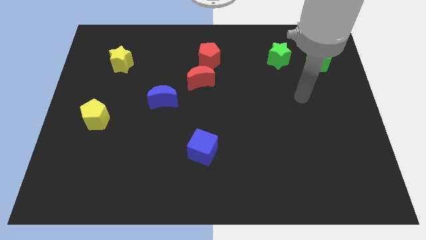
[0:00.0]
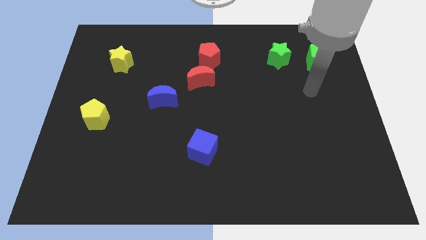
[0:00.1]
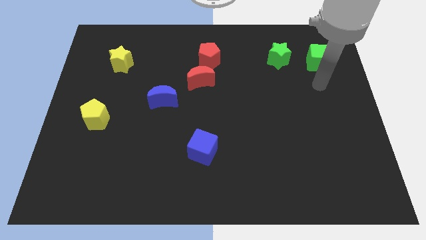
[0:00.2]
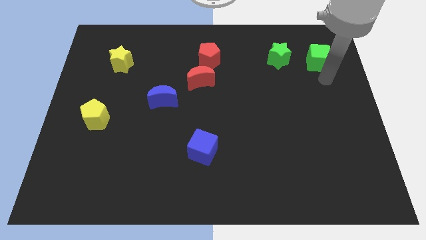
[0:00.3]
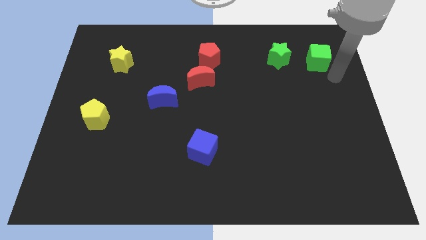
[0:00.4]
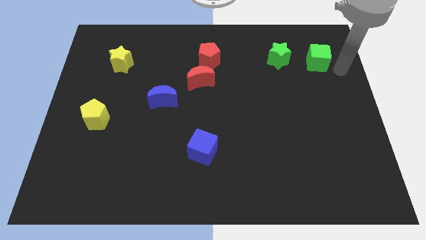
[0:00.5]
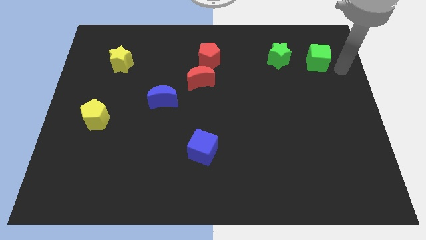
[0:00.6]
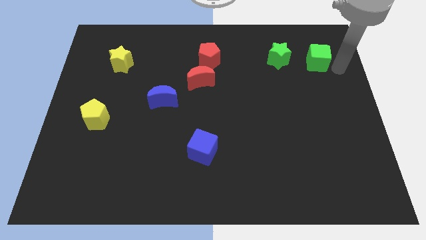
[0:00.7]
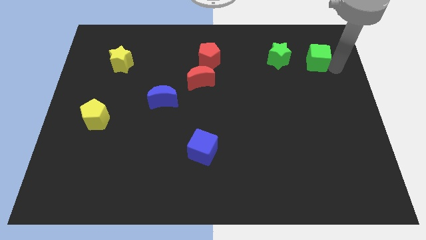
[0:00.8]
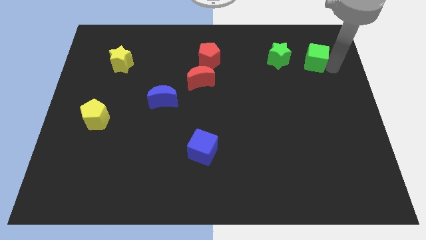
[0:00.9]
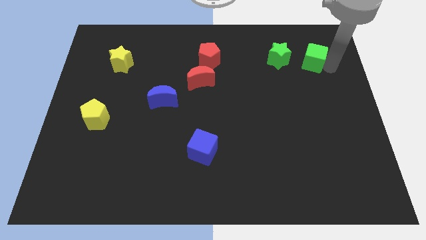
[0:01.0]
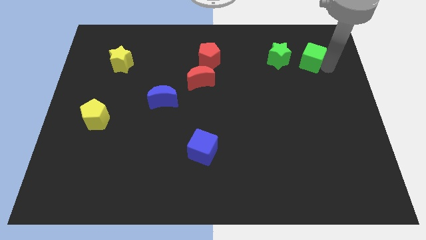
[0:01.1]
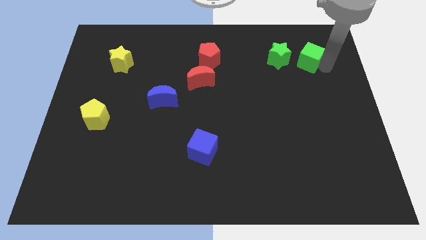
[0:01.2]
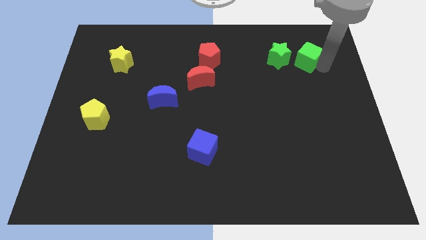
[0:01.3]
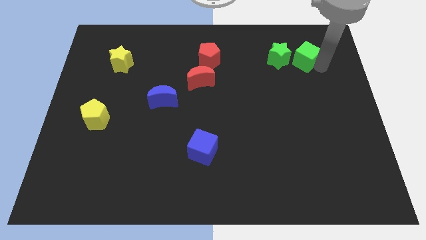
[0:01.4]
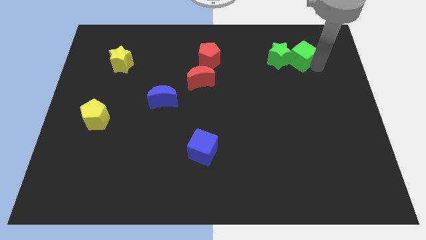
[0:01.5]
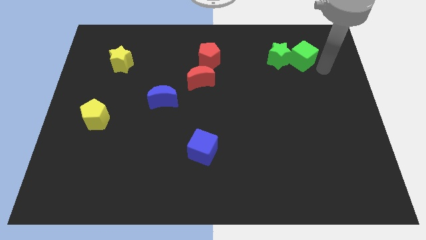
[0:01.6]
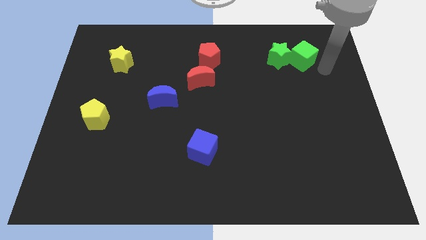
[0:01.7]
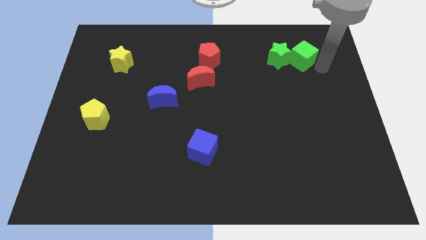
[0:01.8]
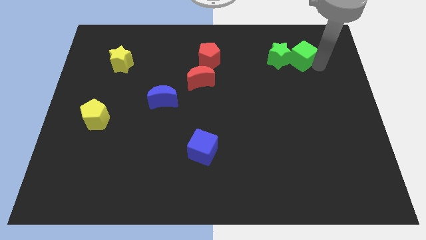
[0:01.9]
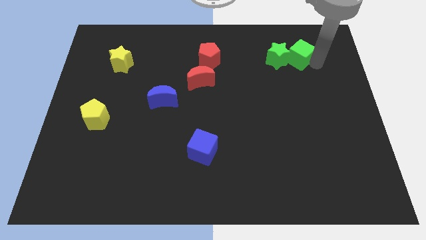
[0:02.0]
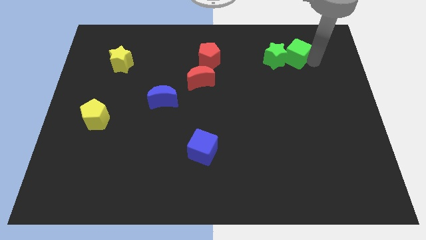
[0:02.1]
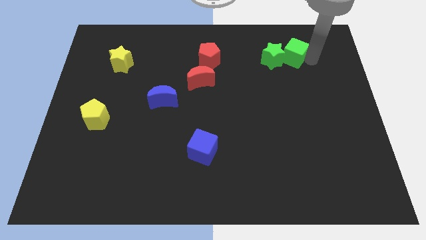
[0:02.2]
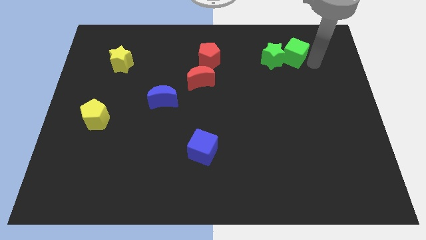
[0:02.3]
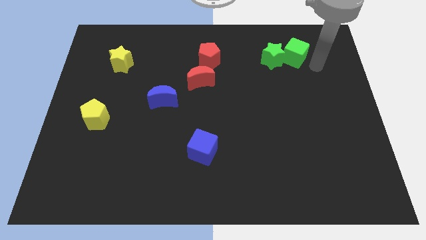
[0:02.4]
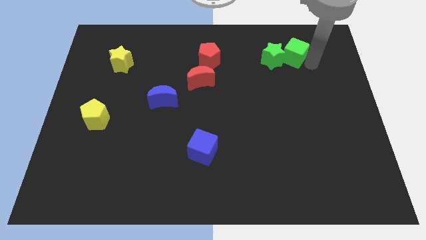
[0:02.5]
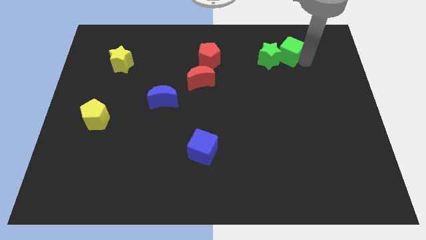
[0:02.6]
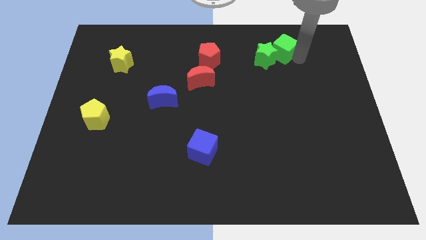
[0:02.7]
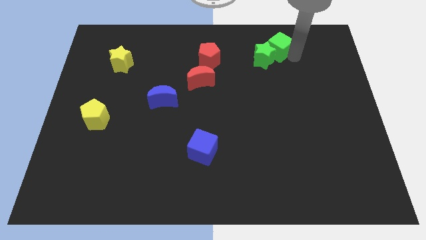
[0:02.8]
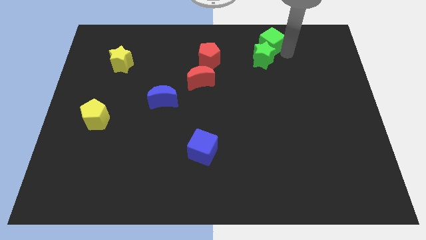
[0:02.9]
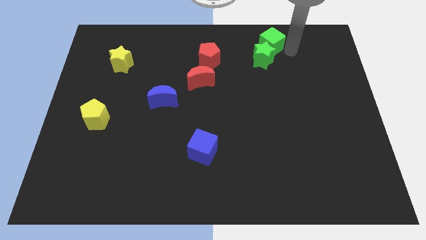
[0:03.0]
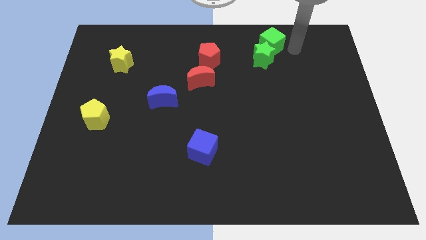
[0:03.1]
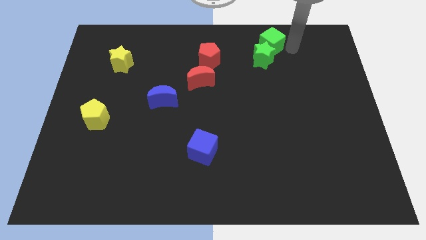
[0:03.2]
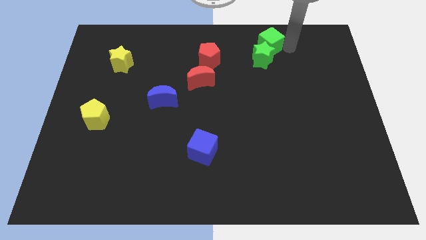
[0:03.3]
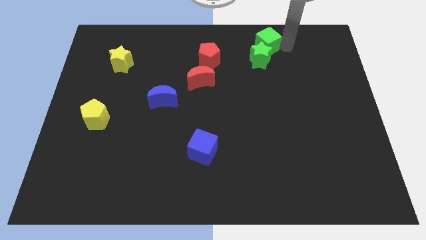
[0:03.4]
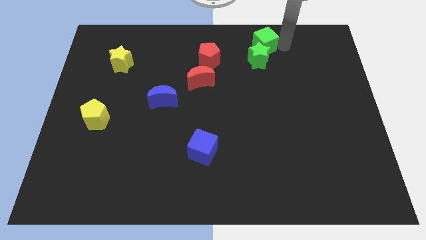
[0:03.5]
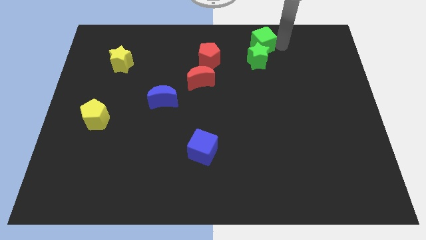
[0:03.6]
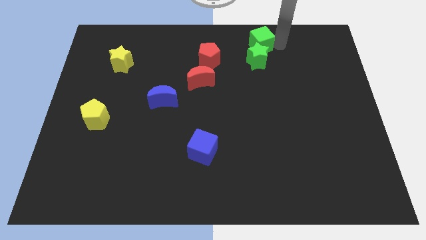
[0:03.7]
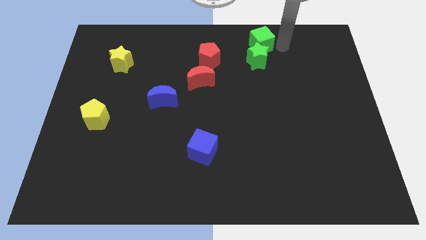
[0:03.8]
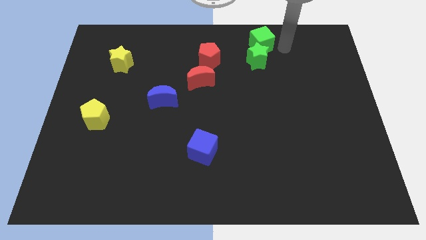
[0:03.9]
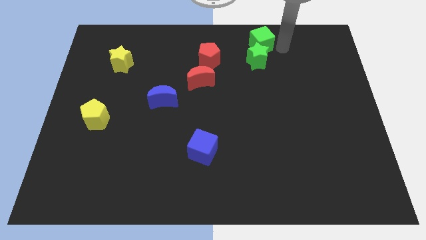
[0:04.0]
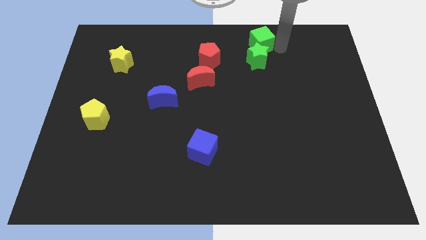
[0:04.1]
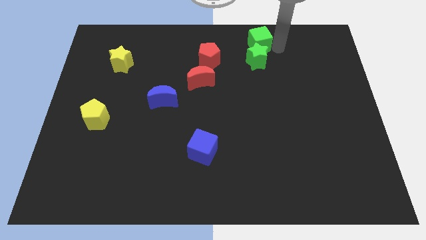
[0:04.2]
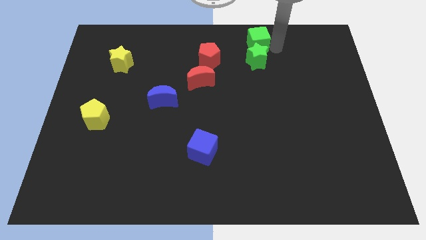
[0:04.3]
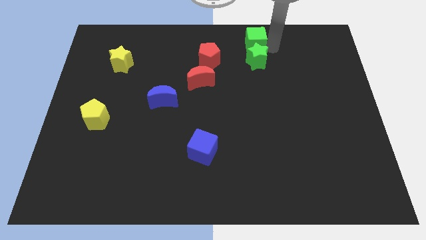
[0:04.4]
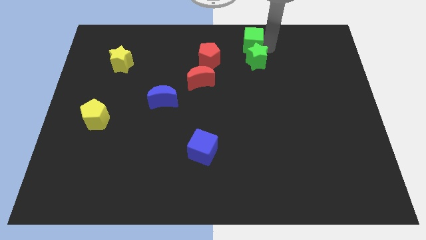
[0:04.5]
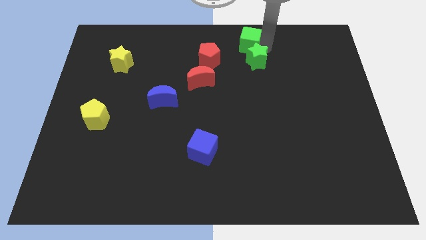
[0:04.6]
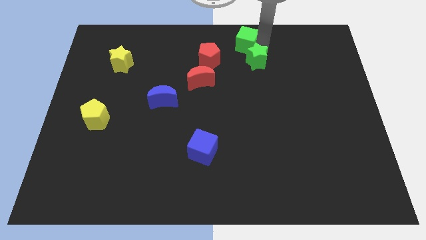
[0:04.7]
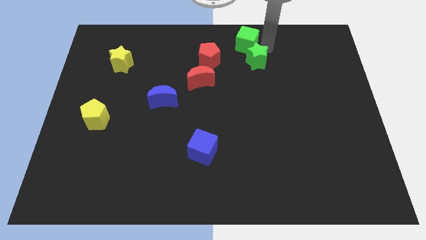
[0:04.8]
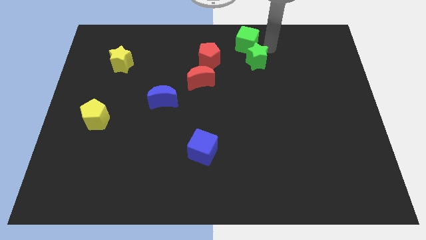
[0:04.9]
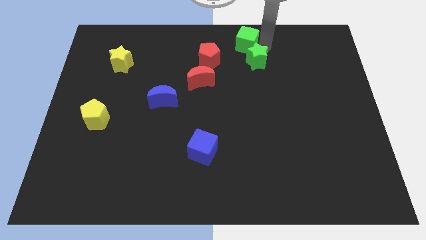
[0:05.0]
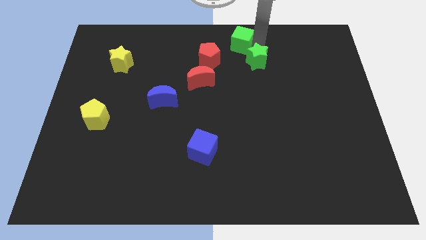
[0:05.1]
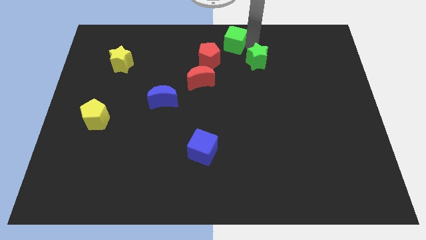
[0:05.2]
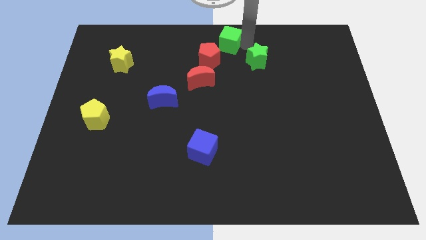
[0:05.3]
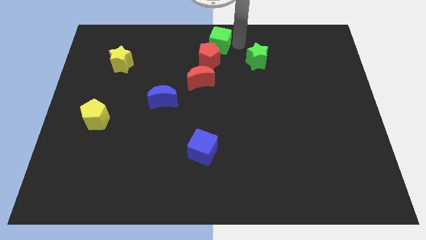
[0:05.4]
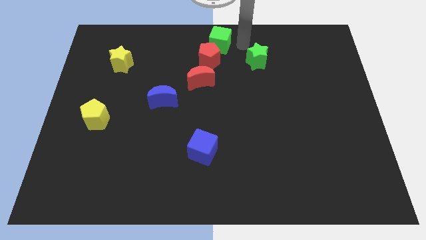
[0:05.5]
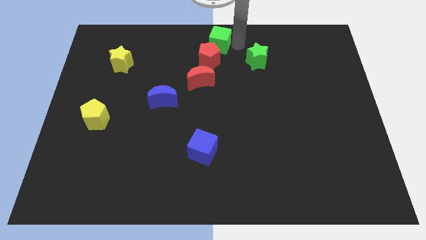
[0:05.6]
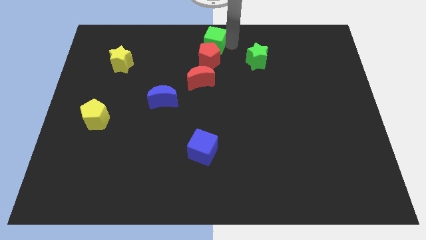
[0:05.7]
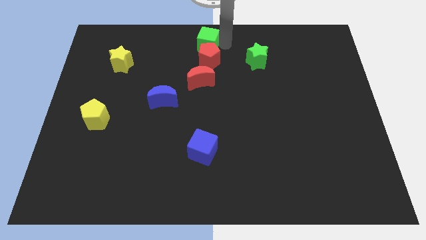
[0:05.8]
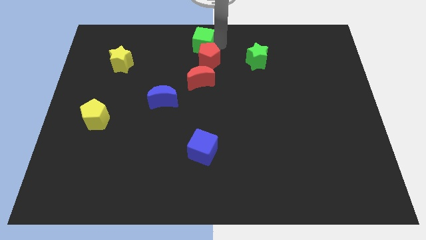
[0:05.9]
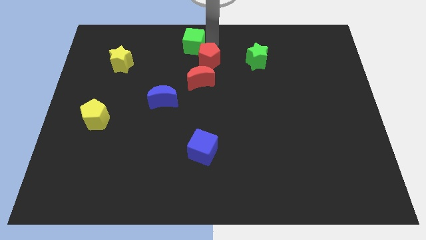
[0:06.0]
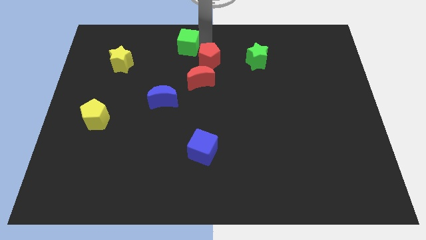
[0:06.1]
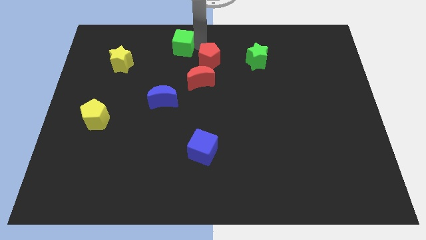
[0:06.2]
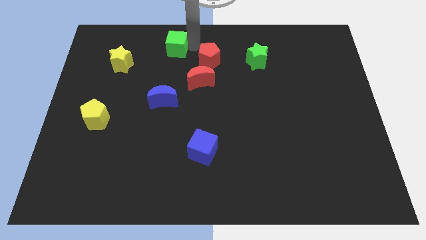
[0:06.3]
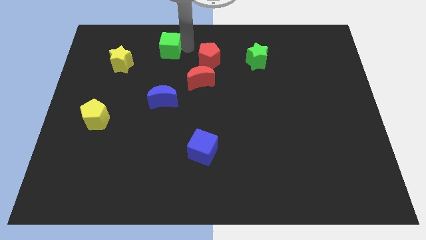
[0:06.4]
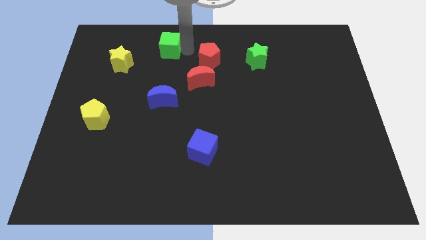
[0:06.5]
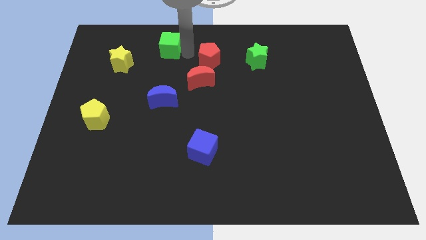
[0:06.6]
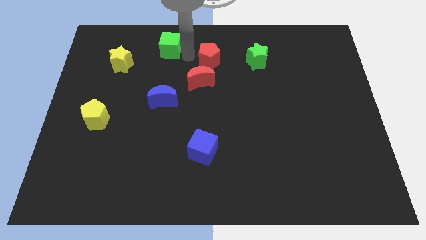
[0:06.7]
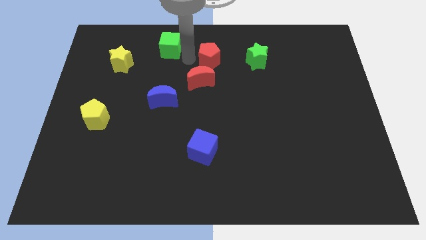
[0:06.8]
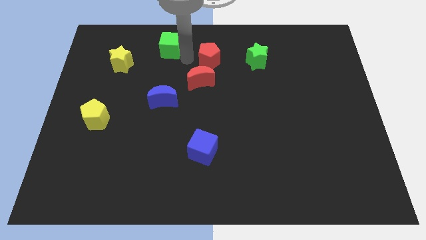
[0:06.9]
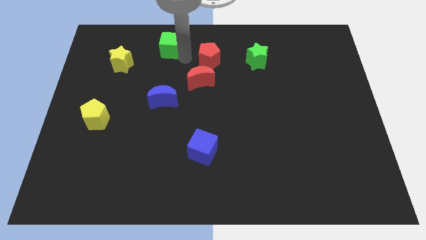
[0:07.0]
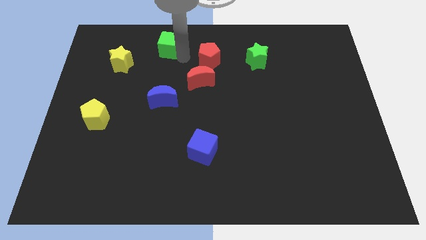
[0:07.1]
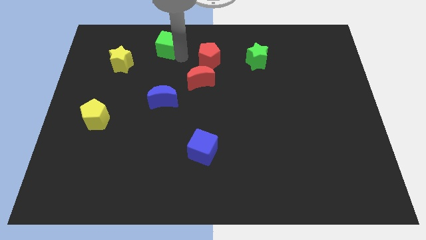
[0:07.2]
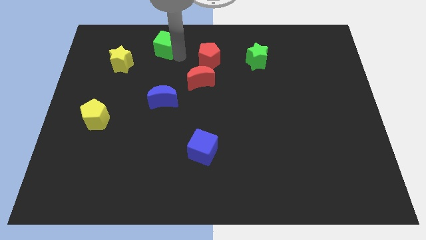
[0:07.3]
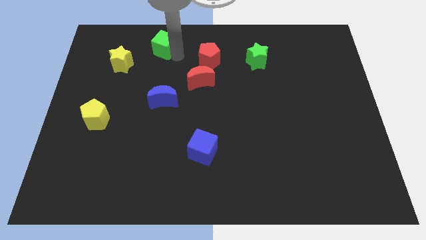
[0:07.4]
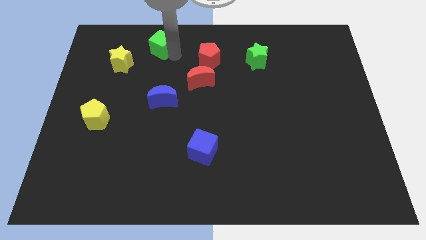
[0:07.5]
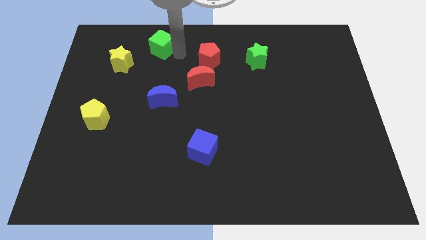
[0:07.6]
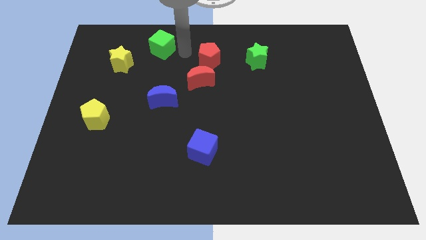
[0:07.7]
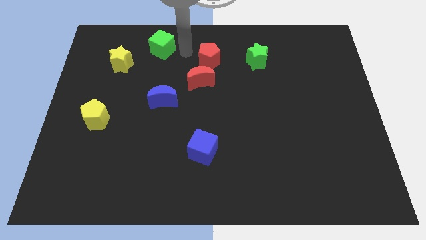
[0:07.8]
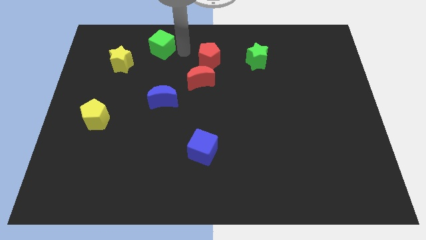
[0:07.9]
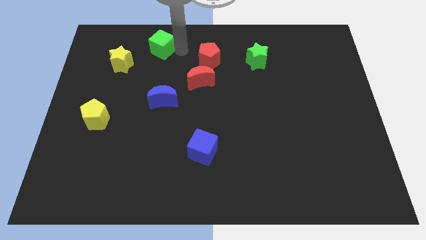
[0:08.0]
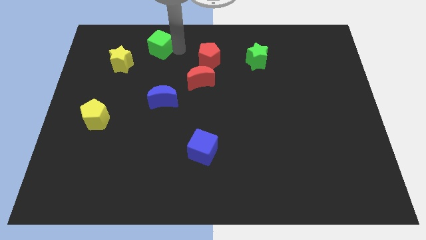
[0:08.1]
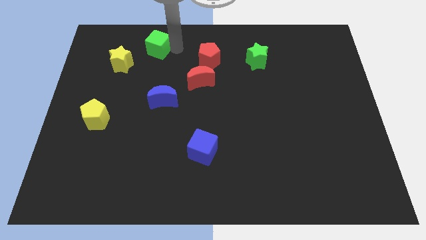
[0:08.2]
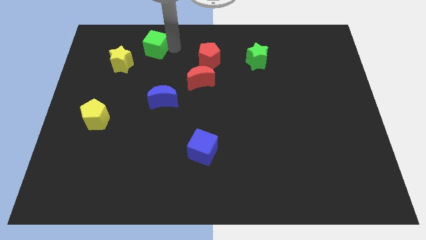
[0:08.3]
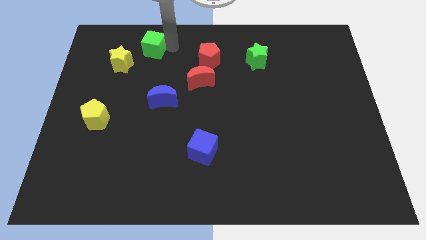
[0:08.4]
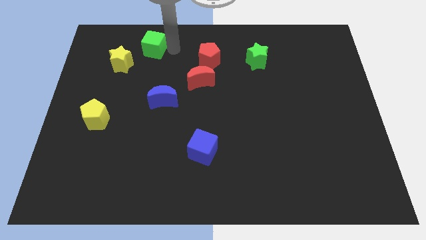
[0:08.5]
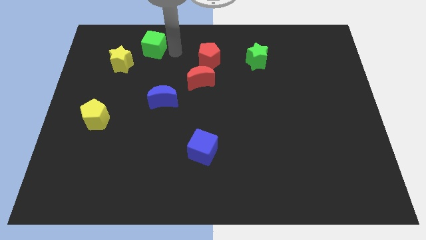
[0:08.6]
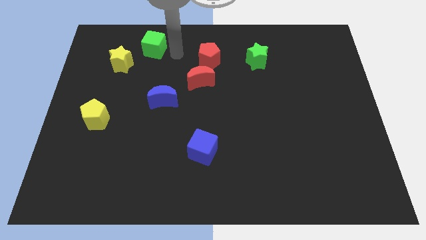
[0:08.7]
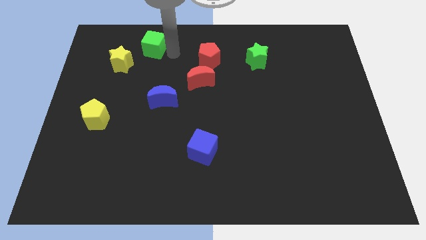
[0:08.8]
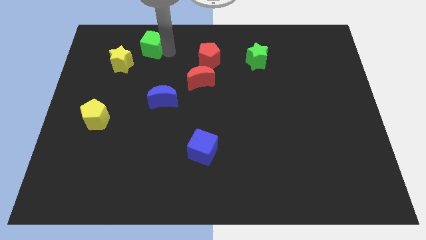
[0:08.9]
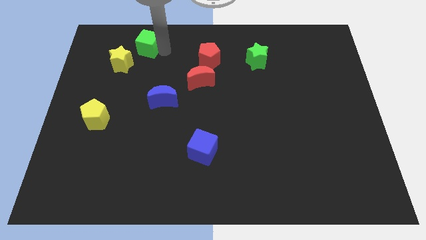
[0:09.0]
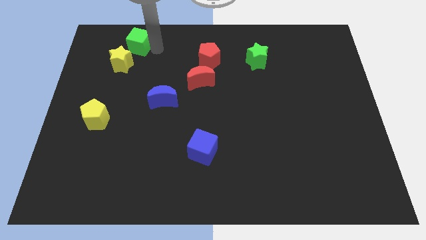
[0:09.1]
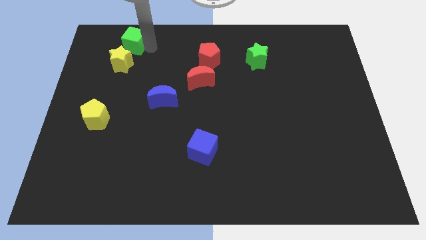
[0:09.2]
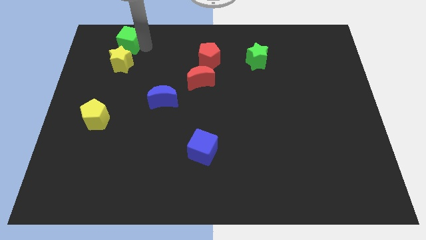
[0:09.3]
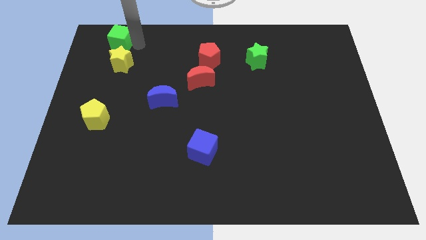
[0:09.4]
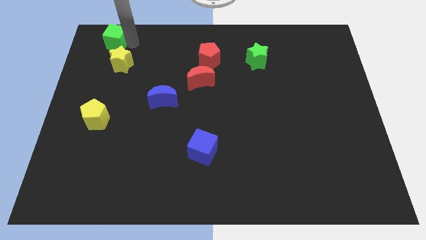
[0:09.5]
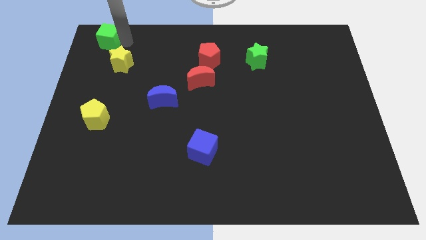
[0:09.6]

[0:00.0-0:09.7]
move the green cube to the top left of the board
